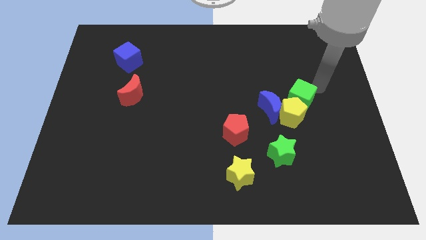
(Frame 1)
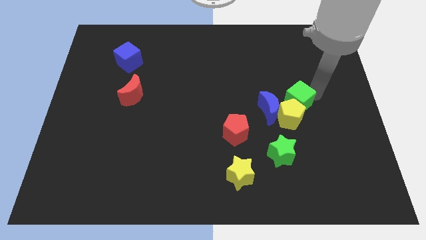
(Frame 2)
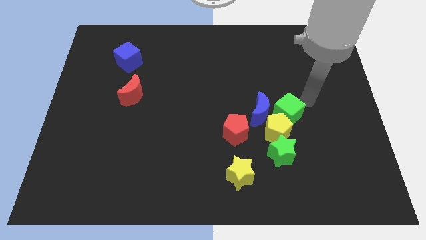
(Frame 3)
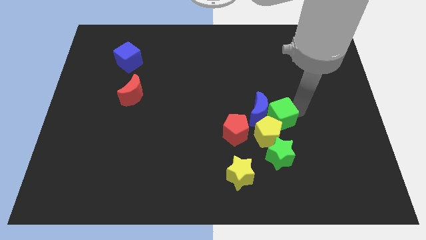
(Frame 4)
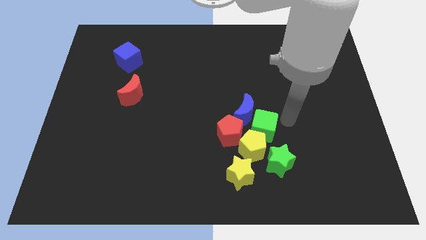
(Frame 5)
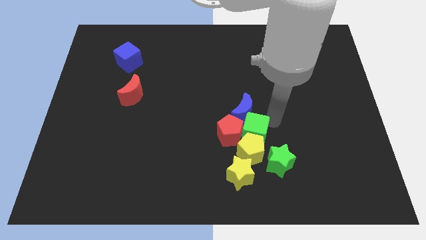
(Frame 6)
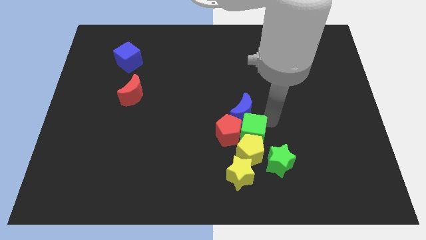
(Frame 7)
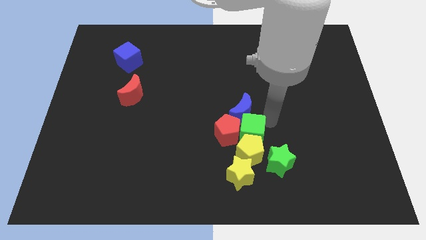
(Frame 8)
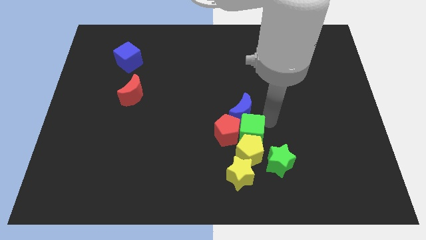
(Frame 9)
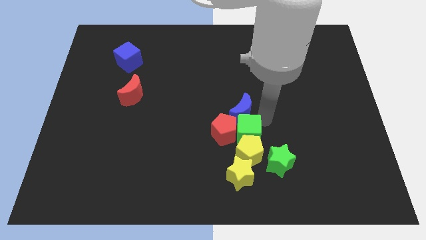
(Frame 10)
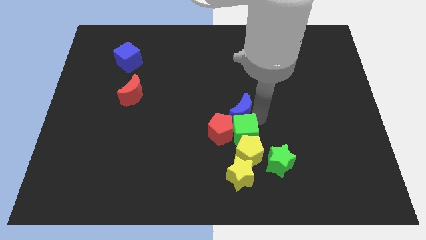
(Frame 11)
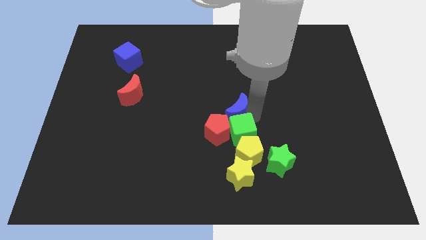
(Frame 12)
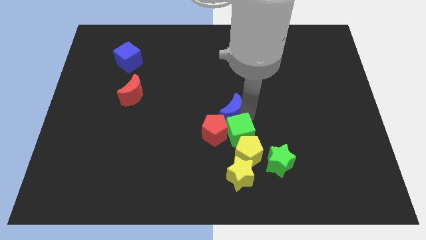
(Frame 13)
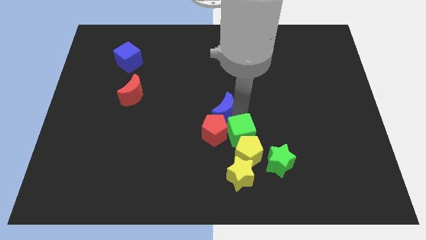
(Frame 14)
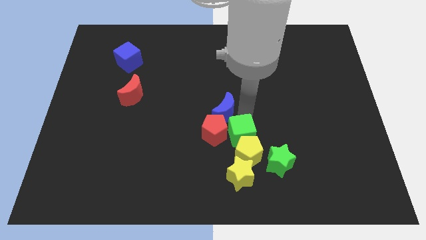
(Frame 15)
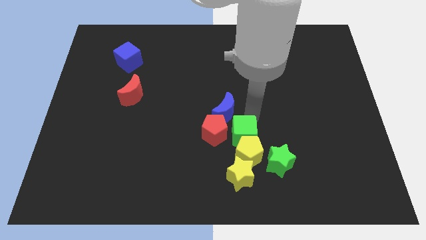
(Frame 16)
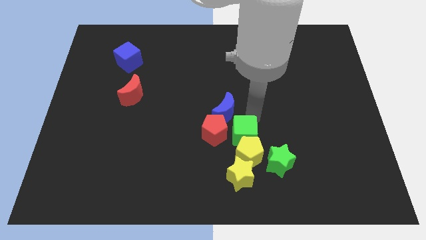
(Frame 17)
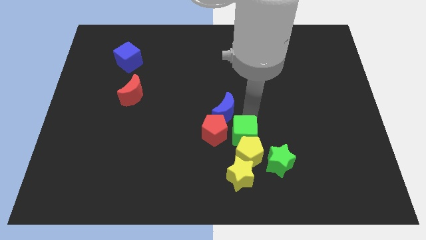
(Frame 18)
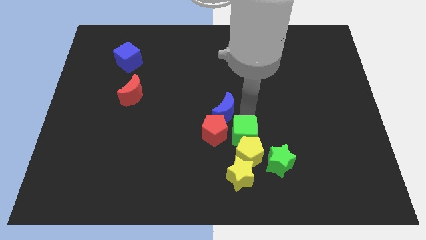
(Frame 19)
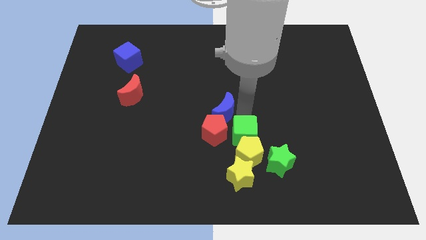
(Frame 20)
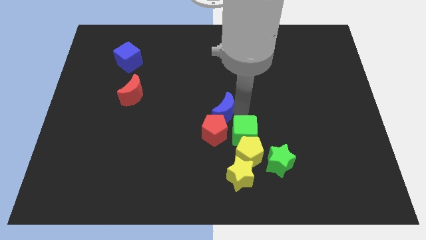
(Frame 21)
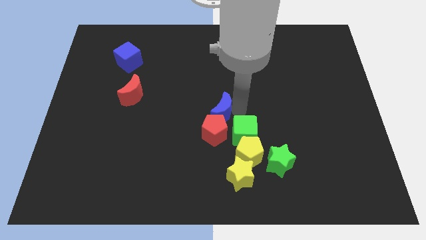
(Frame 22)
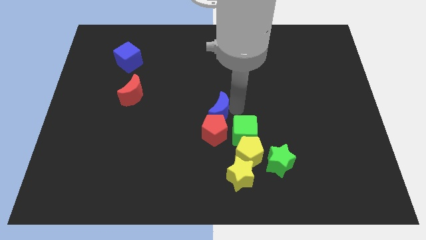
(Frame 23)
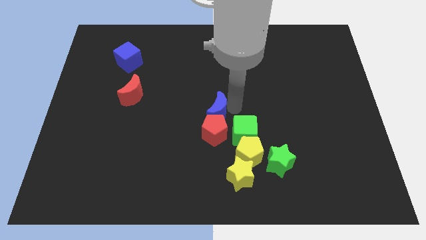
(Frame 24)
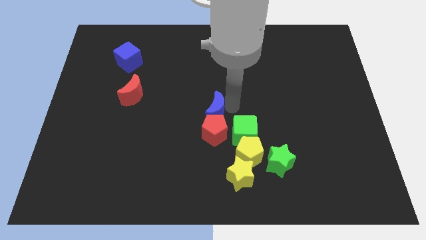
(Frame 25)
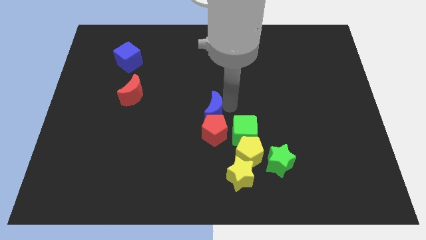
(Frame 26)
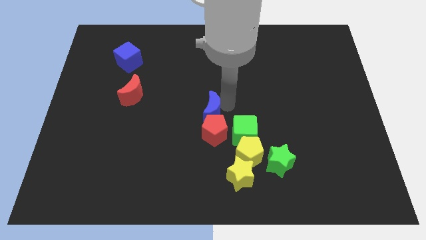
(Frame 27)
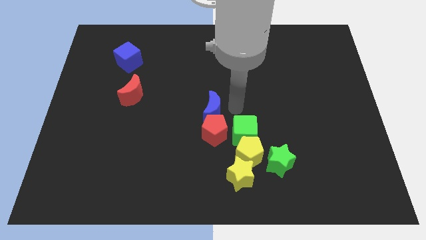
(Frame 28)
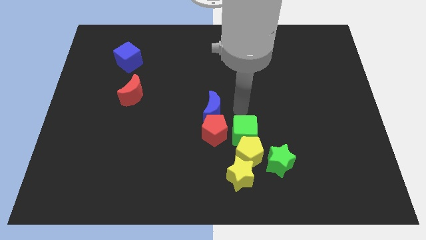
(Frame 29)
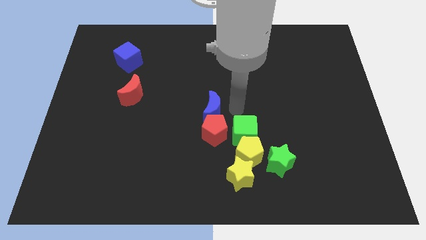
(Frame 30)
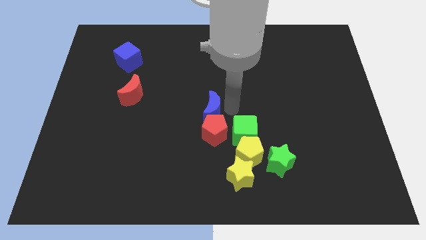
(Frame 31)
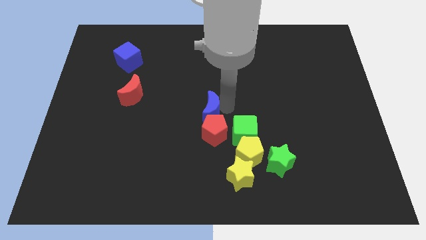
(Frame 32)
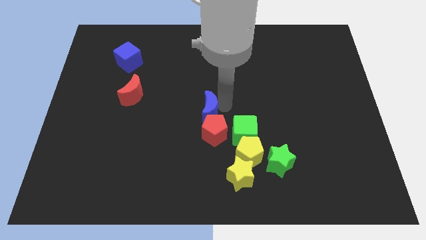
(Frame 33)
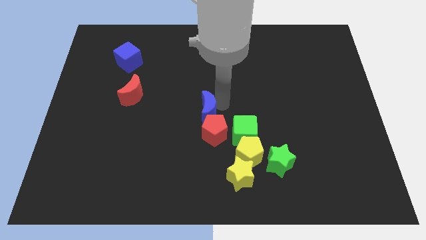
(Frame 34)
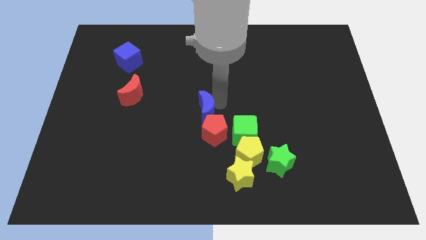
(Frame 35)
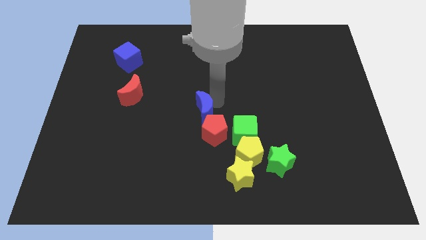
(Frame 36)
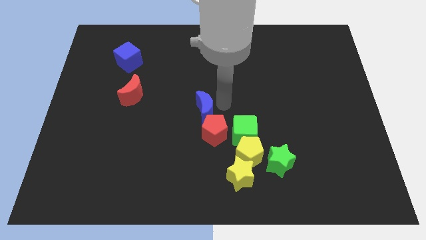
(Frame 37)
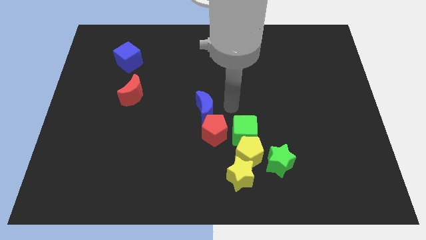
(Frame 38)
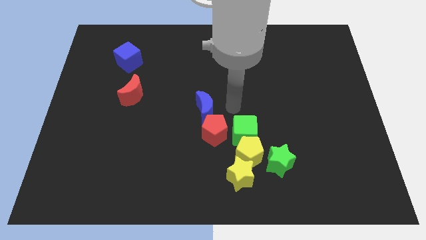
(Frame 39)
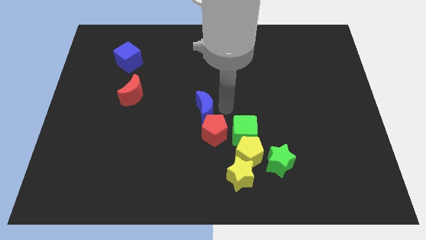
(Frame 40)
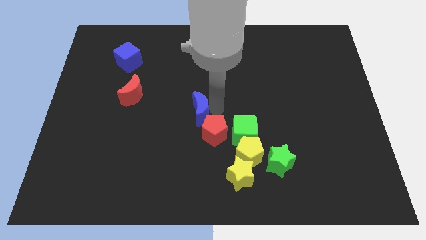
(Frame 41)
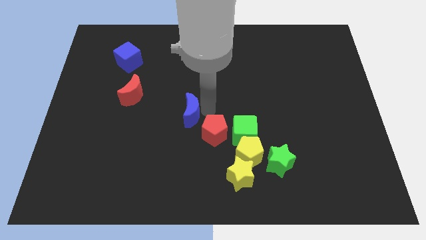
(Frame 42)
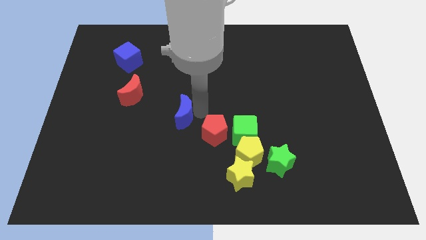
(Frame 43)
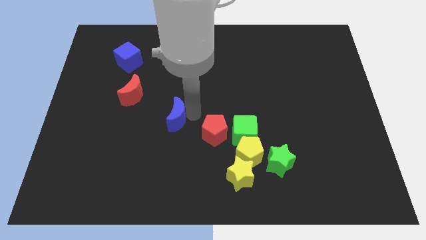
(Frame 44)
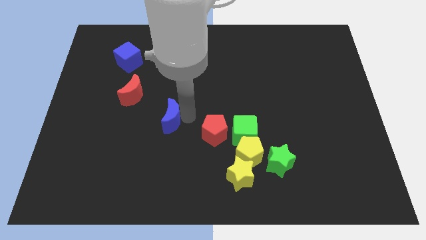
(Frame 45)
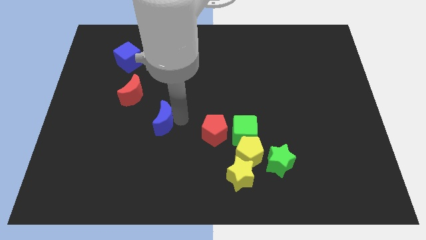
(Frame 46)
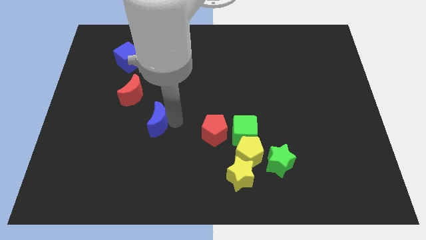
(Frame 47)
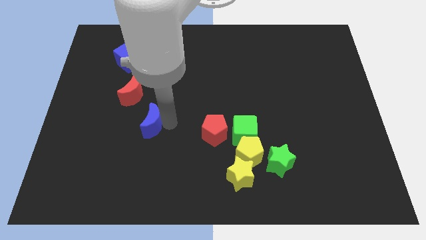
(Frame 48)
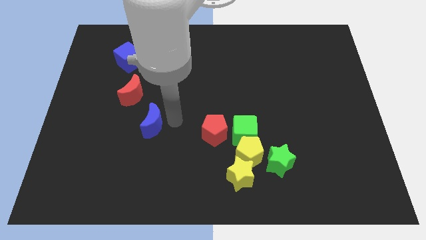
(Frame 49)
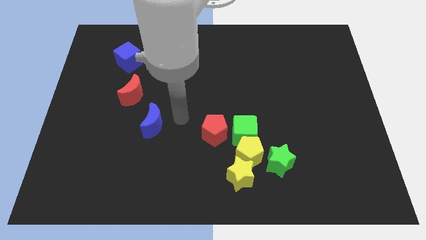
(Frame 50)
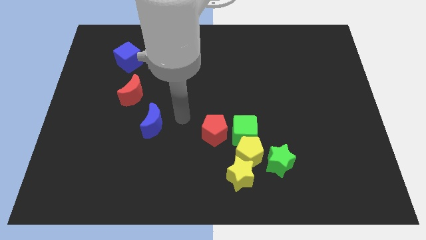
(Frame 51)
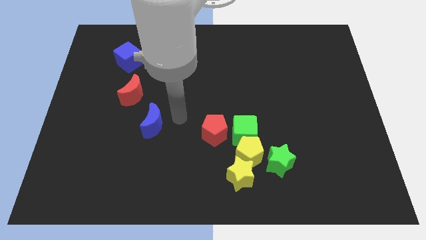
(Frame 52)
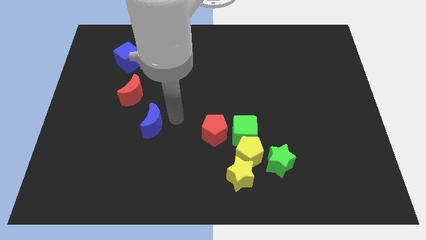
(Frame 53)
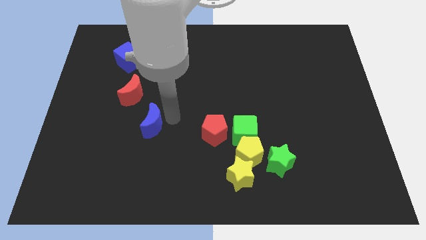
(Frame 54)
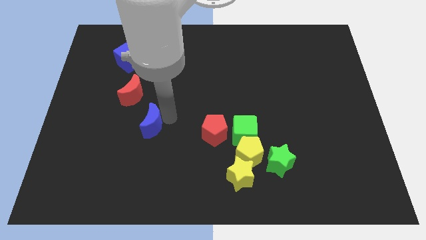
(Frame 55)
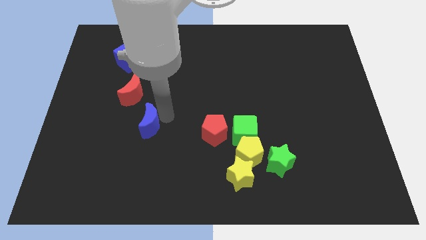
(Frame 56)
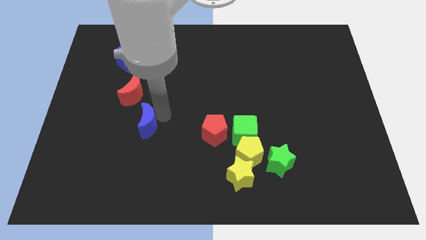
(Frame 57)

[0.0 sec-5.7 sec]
put the blue moon to the bottom side of the red moon

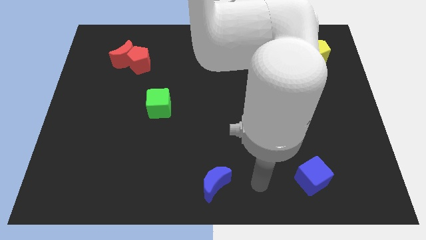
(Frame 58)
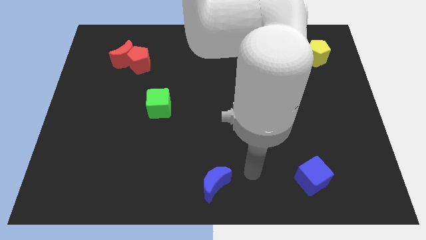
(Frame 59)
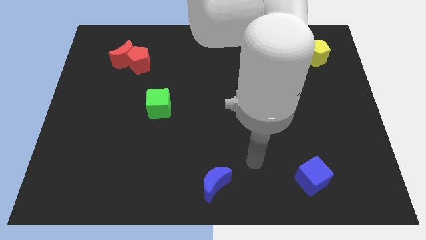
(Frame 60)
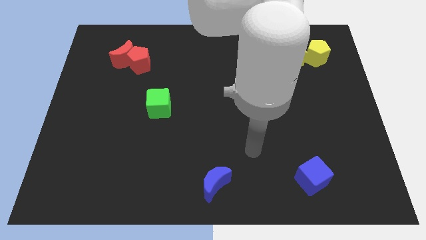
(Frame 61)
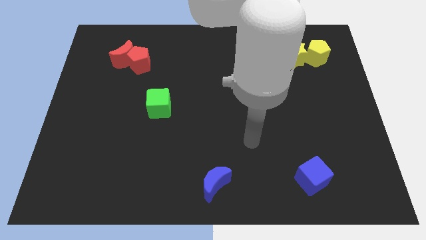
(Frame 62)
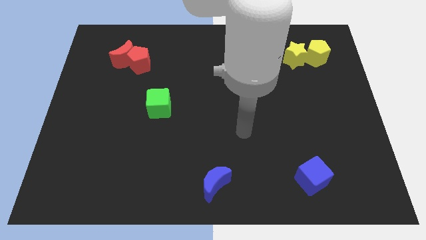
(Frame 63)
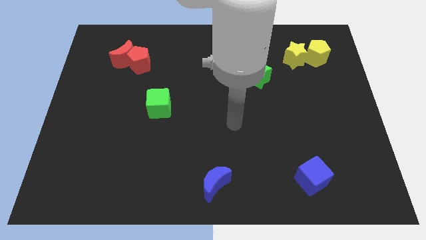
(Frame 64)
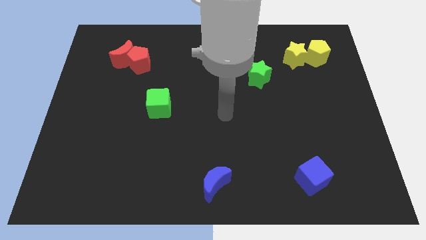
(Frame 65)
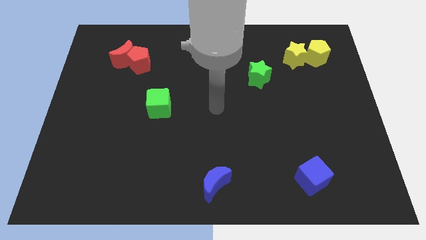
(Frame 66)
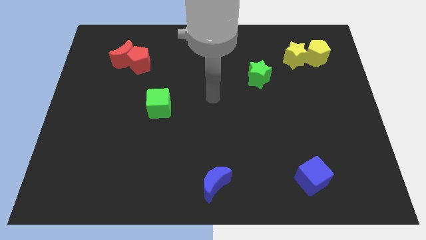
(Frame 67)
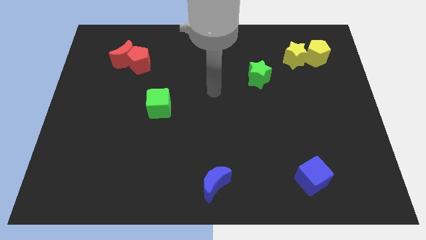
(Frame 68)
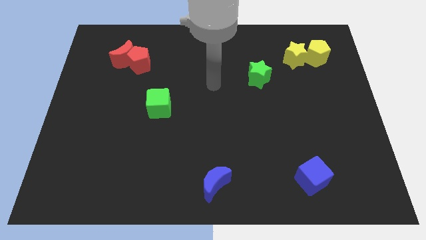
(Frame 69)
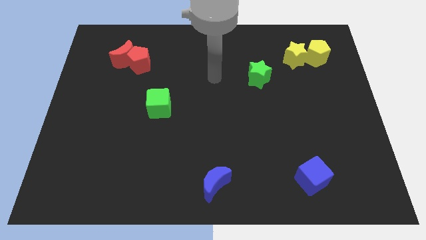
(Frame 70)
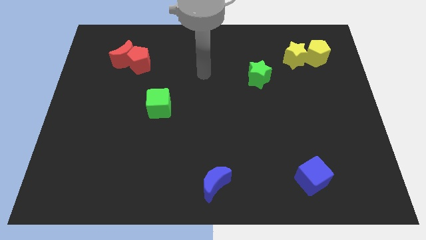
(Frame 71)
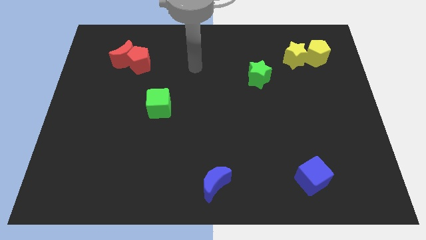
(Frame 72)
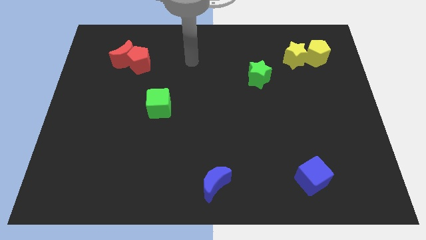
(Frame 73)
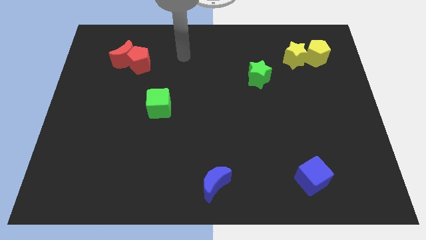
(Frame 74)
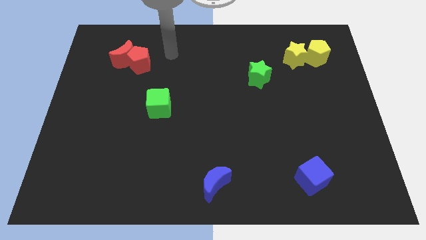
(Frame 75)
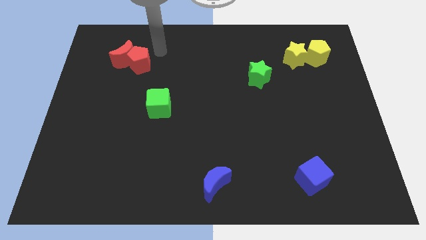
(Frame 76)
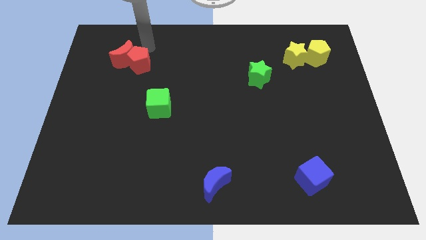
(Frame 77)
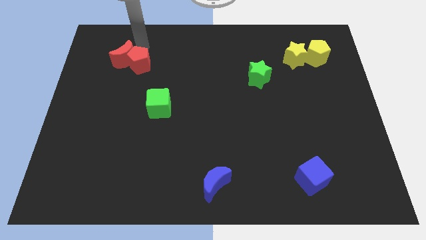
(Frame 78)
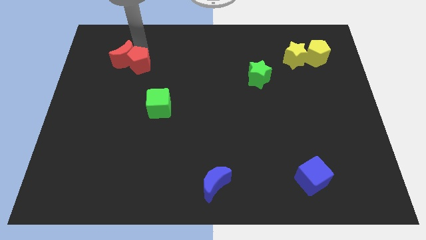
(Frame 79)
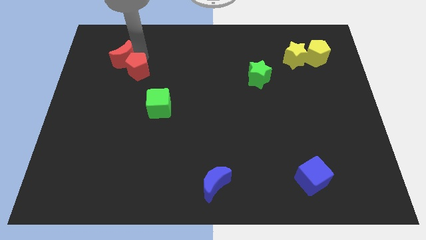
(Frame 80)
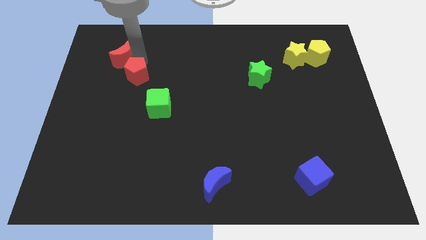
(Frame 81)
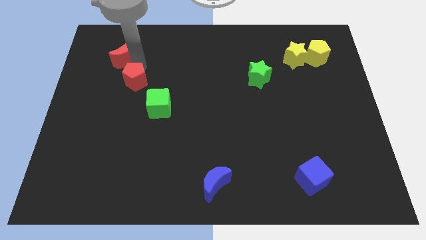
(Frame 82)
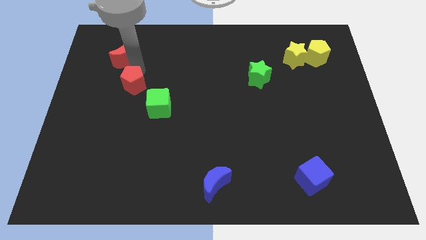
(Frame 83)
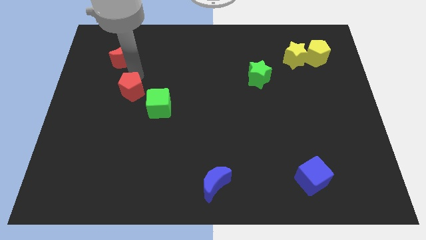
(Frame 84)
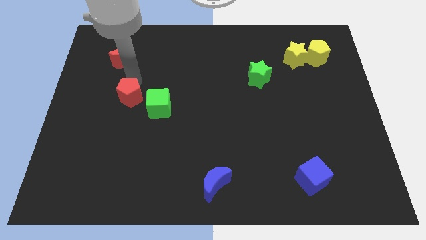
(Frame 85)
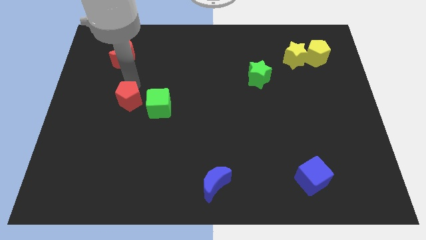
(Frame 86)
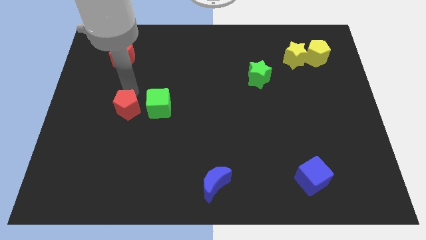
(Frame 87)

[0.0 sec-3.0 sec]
put the red pentagon to the bottom left of the green cube
